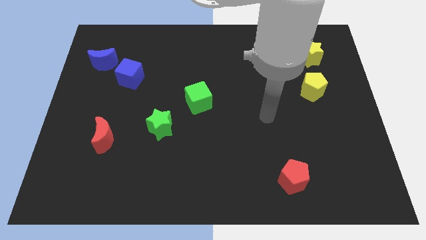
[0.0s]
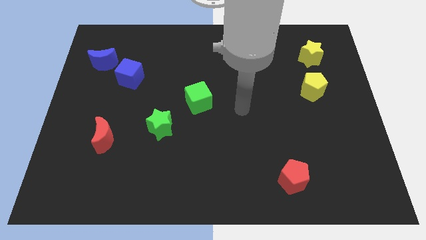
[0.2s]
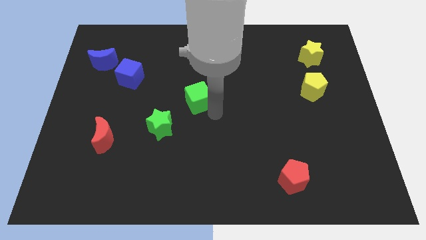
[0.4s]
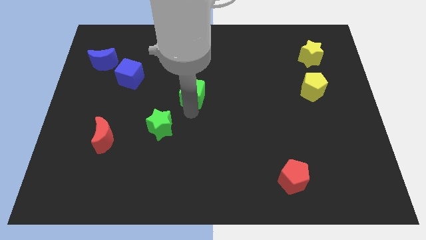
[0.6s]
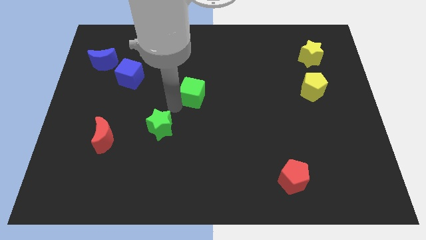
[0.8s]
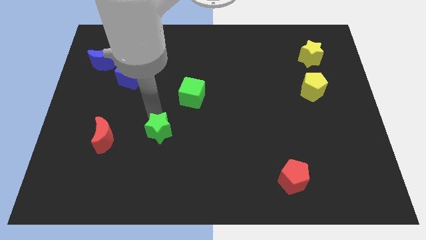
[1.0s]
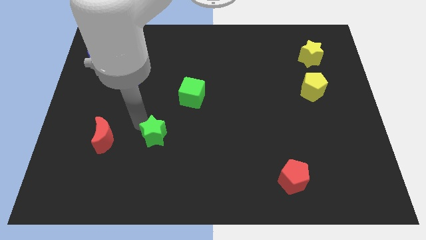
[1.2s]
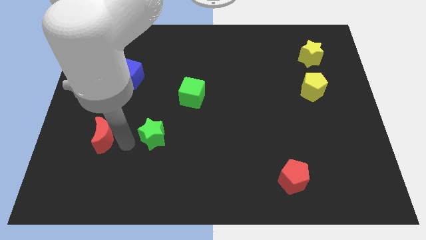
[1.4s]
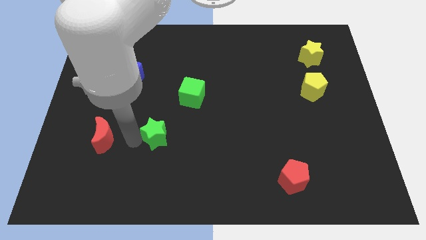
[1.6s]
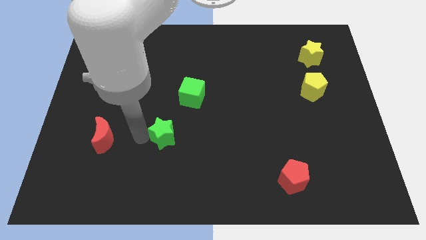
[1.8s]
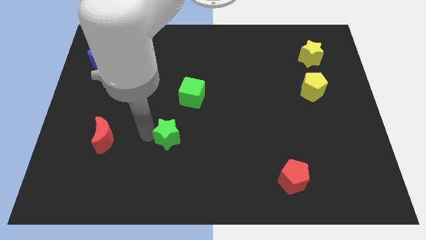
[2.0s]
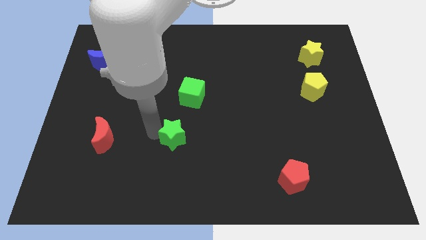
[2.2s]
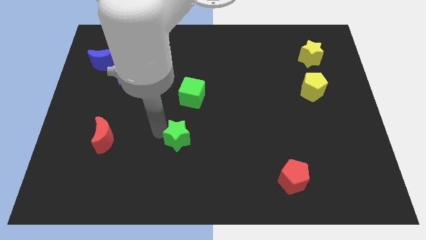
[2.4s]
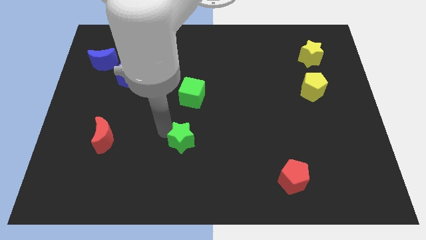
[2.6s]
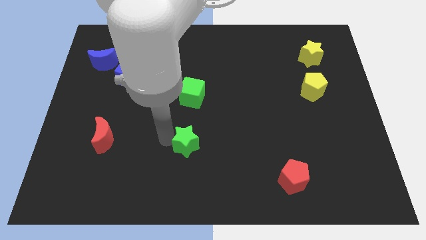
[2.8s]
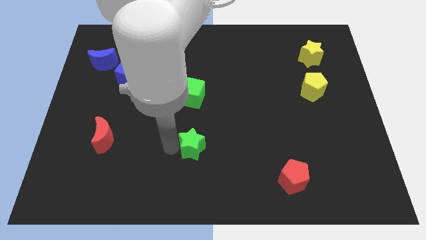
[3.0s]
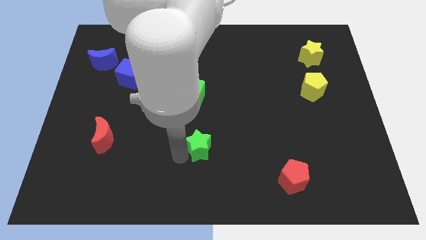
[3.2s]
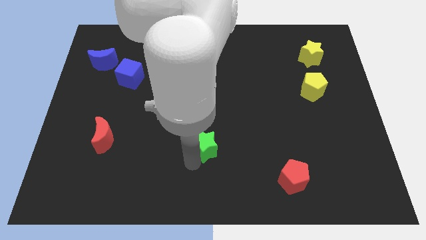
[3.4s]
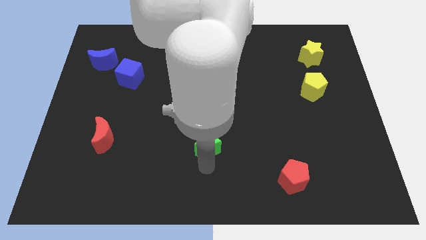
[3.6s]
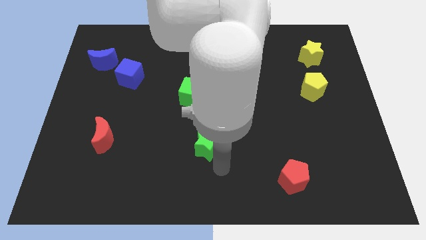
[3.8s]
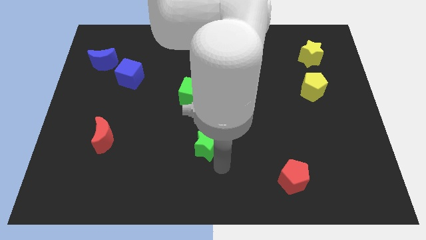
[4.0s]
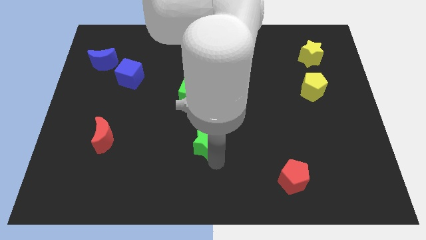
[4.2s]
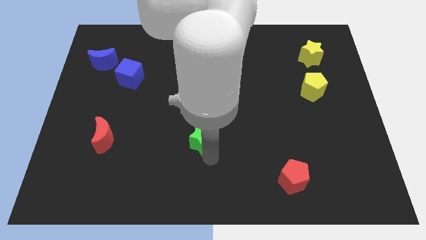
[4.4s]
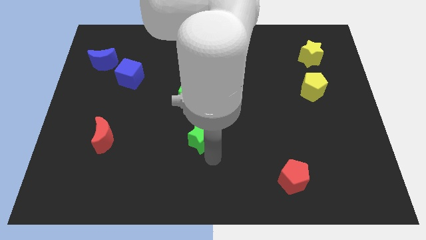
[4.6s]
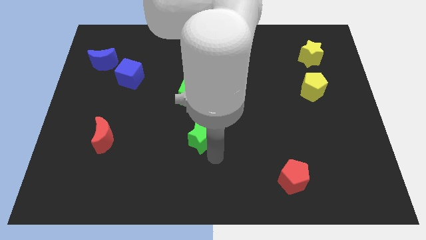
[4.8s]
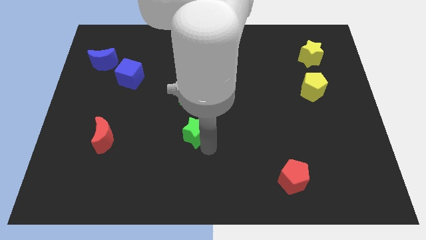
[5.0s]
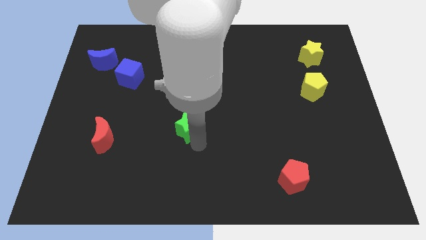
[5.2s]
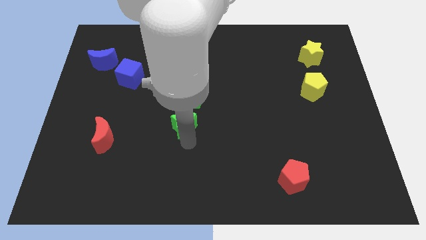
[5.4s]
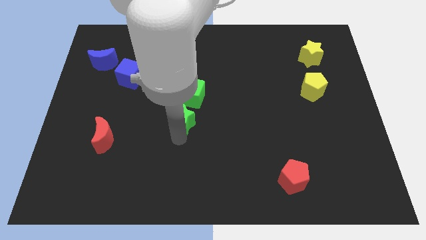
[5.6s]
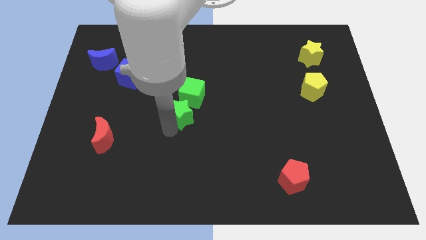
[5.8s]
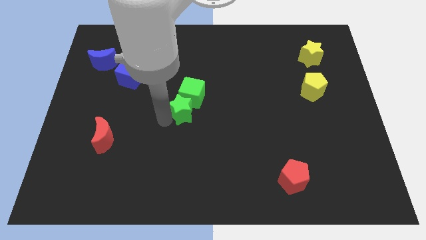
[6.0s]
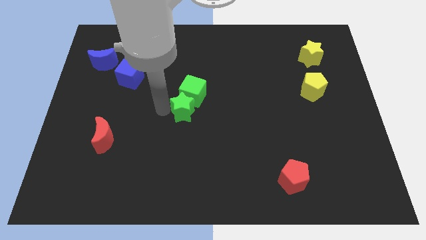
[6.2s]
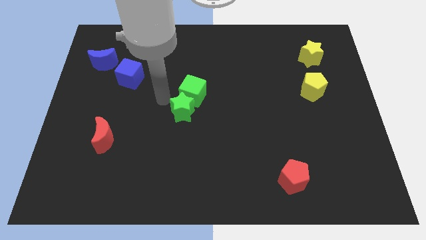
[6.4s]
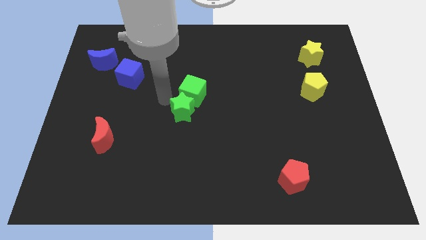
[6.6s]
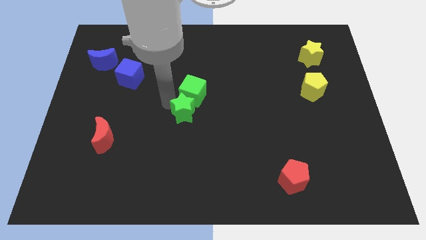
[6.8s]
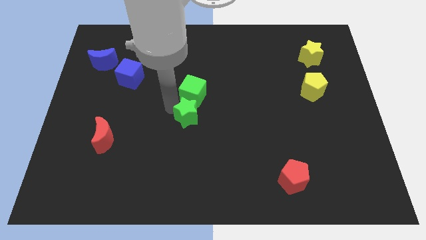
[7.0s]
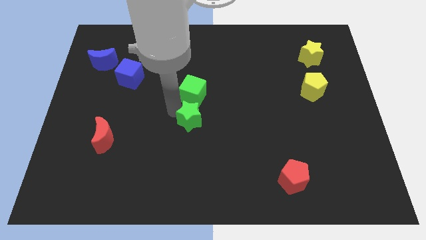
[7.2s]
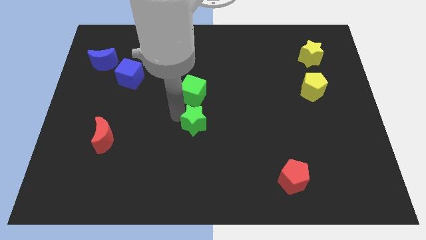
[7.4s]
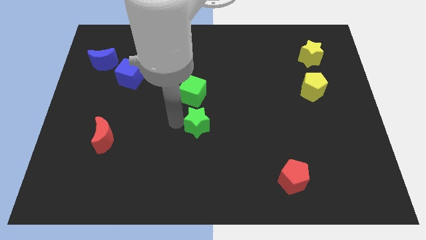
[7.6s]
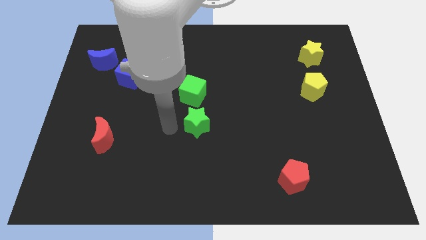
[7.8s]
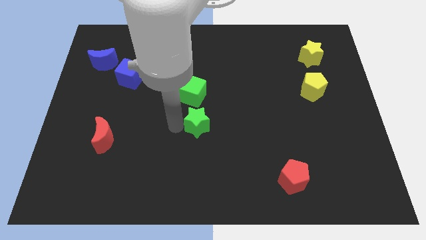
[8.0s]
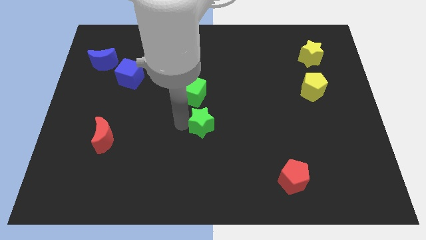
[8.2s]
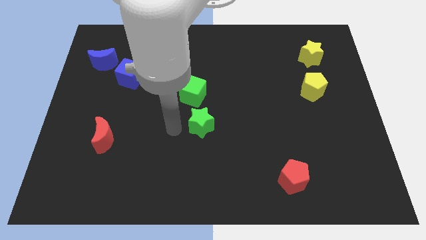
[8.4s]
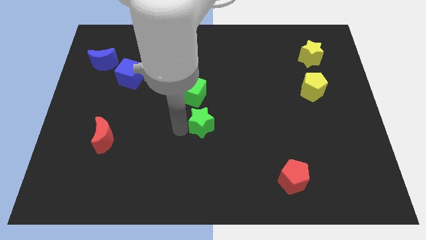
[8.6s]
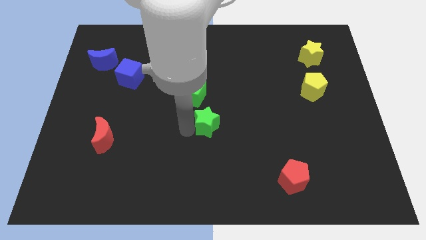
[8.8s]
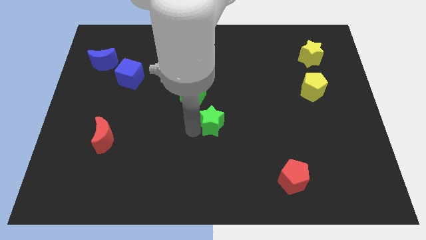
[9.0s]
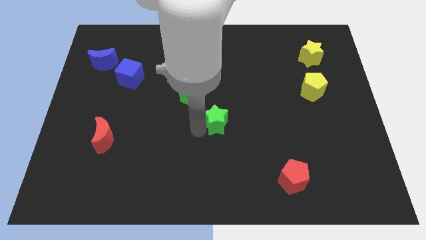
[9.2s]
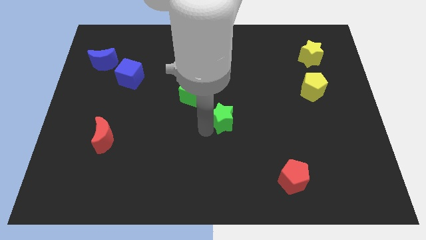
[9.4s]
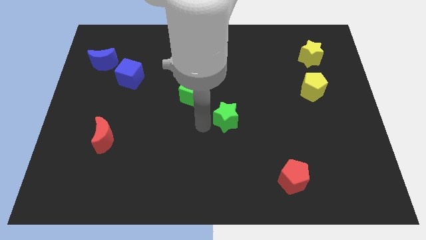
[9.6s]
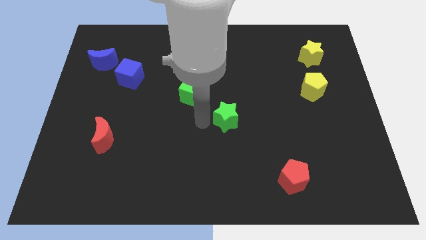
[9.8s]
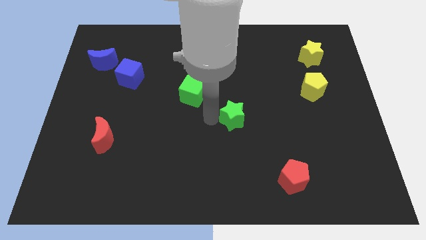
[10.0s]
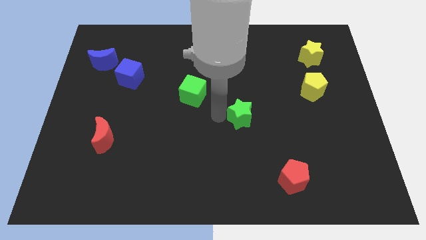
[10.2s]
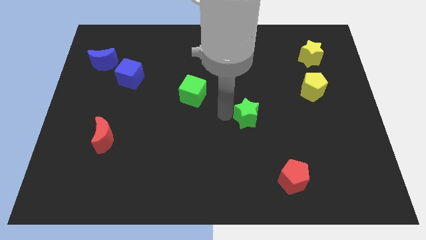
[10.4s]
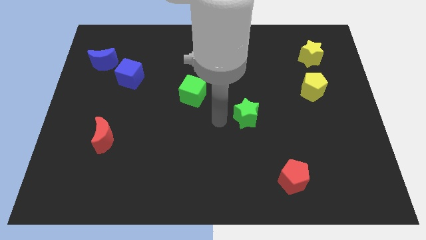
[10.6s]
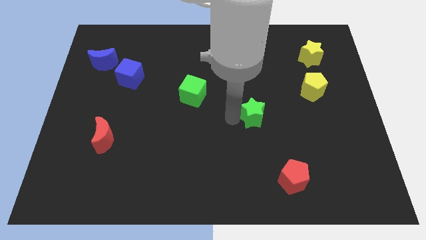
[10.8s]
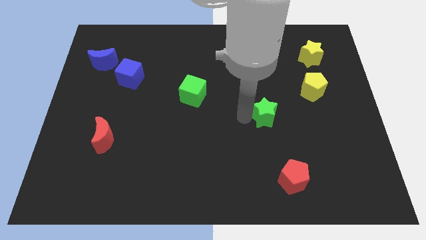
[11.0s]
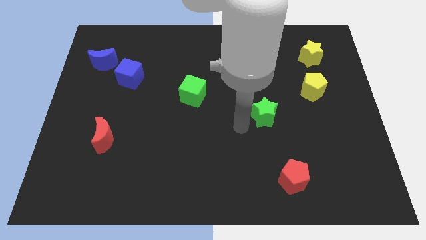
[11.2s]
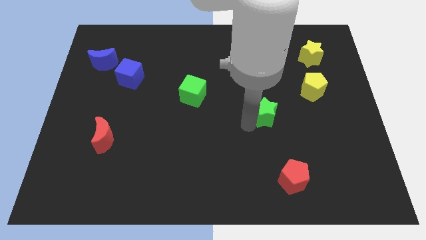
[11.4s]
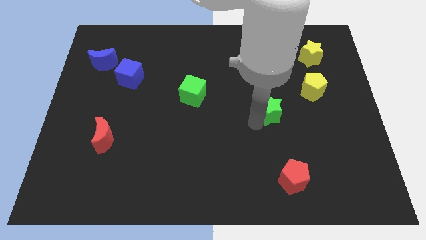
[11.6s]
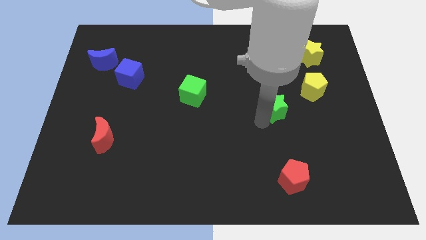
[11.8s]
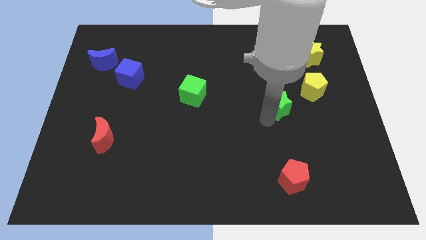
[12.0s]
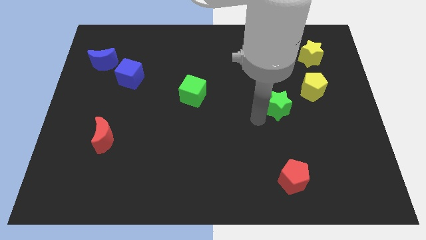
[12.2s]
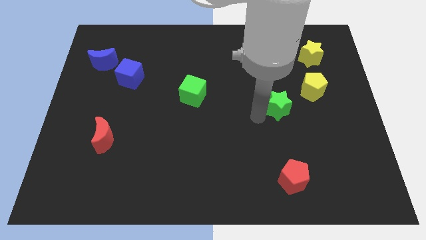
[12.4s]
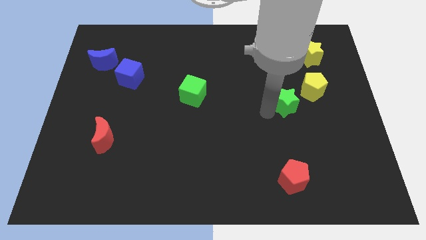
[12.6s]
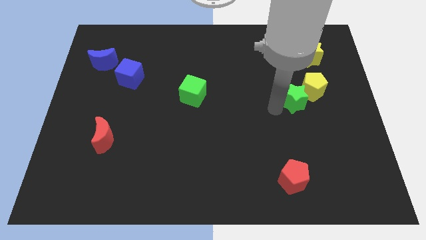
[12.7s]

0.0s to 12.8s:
push the green star close to the yellow pentagon

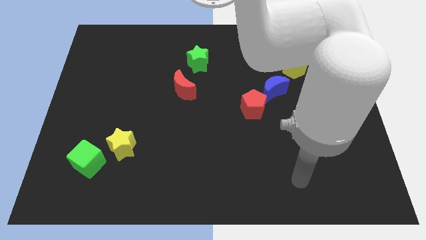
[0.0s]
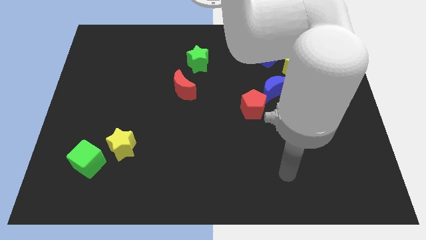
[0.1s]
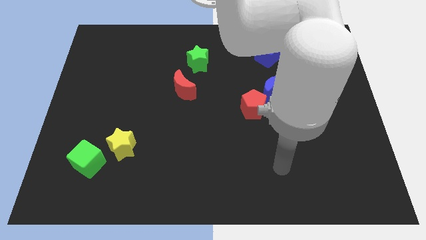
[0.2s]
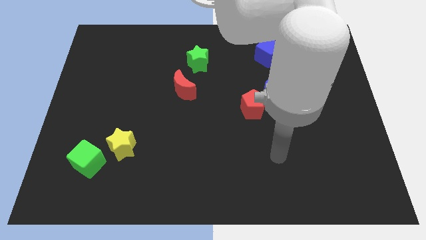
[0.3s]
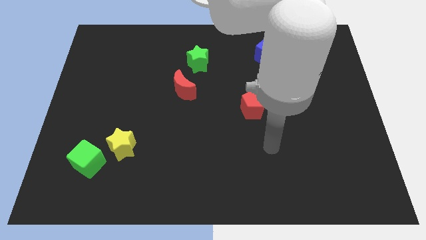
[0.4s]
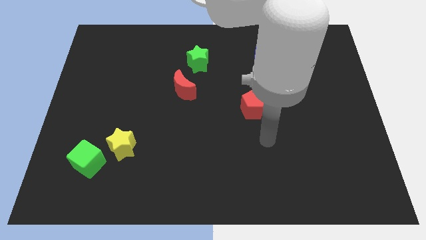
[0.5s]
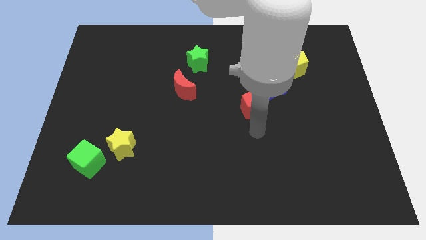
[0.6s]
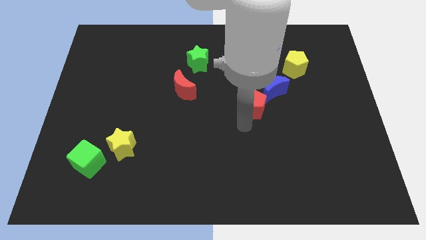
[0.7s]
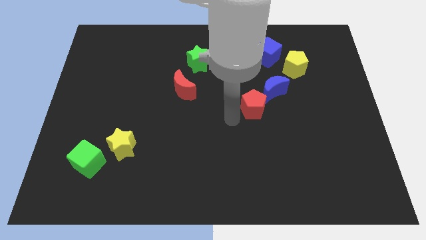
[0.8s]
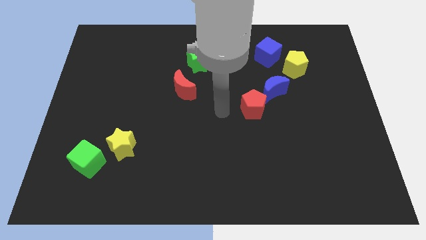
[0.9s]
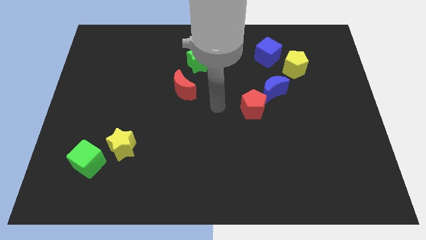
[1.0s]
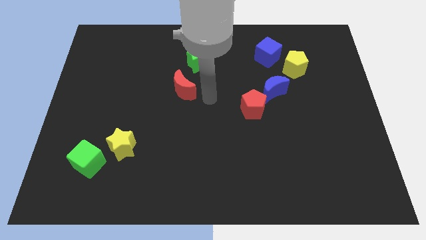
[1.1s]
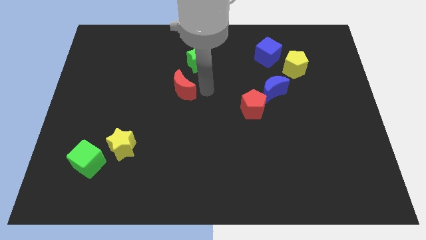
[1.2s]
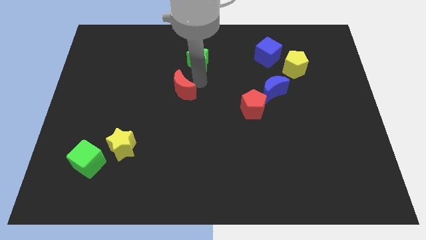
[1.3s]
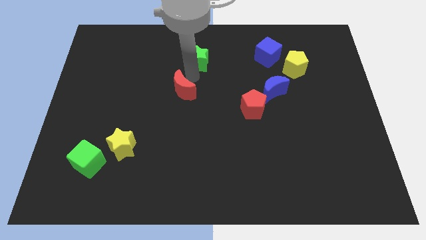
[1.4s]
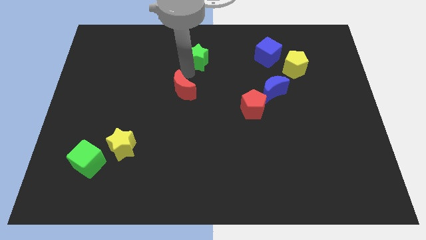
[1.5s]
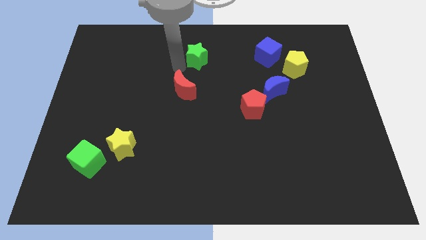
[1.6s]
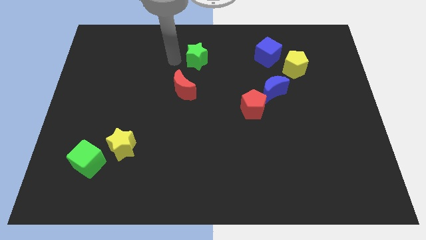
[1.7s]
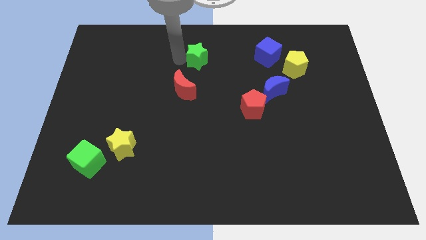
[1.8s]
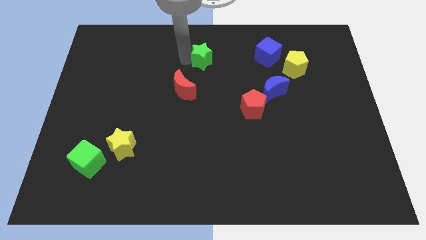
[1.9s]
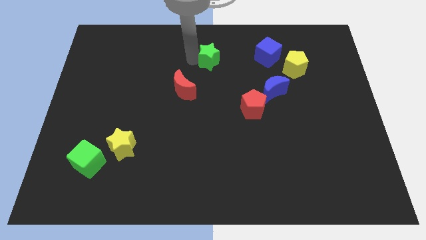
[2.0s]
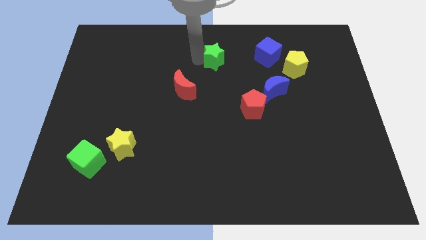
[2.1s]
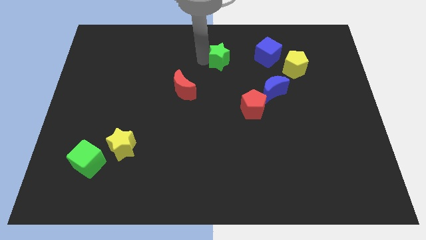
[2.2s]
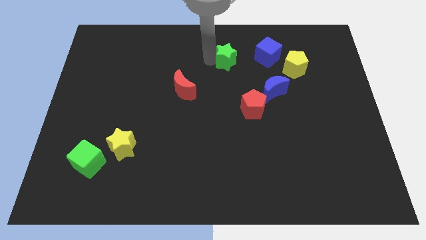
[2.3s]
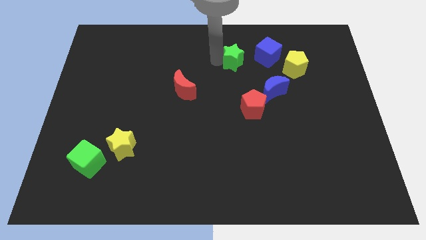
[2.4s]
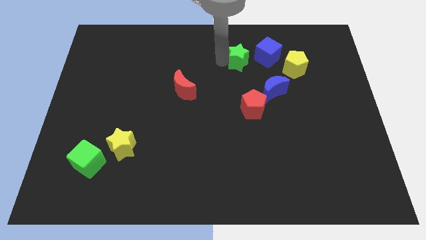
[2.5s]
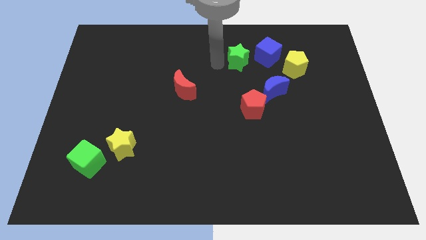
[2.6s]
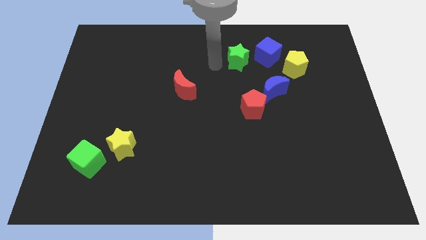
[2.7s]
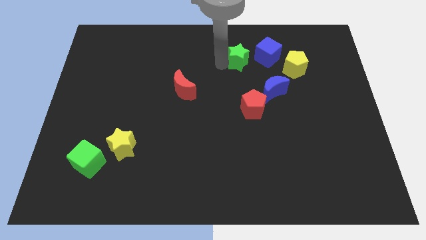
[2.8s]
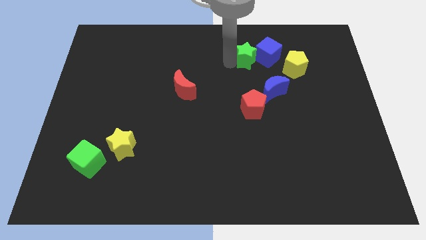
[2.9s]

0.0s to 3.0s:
put the green star to the blue cube
